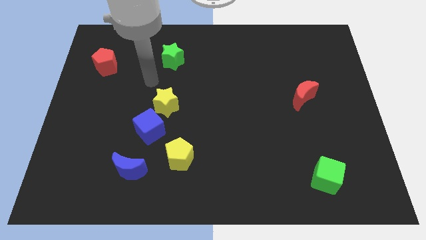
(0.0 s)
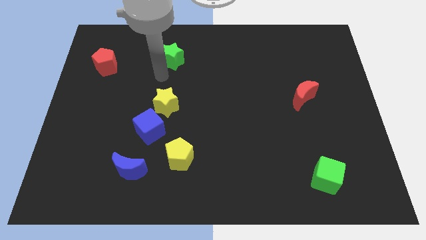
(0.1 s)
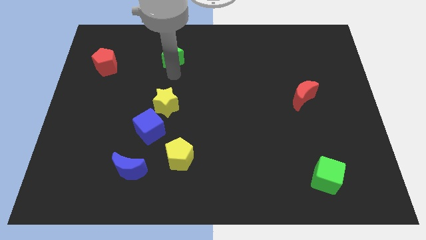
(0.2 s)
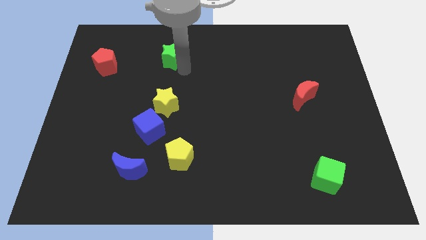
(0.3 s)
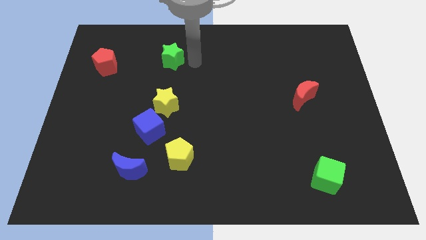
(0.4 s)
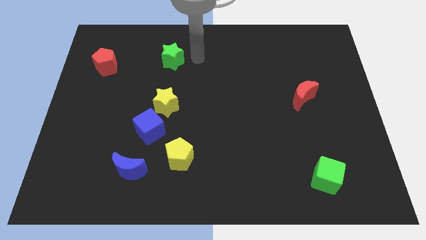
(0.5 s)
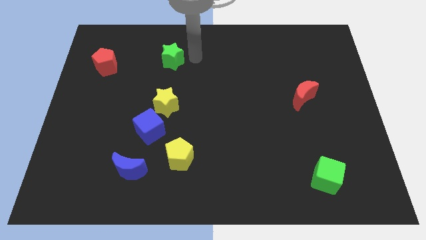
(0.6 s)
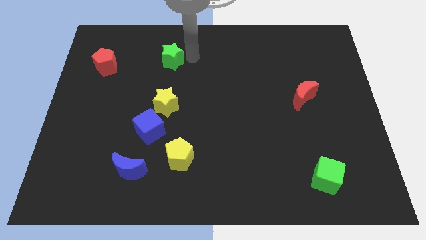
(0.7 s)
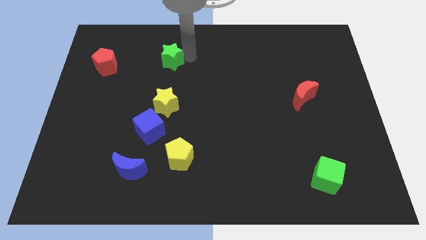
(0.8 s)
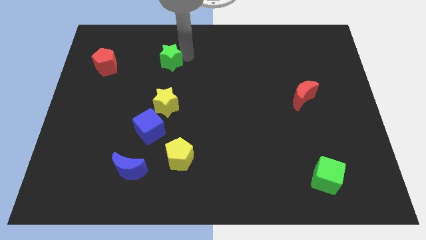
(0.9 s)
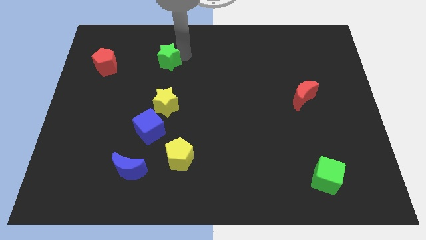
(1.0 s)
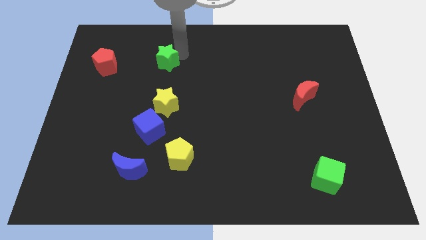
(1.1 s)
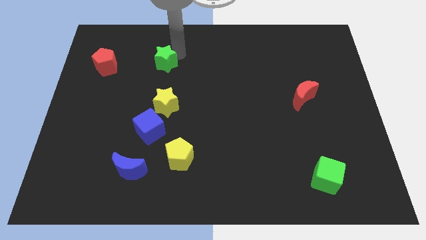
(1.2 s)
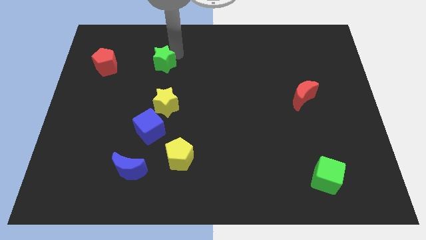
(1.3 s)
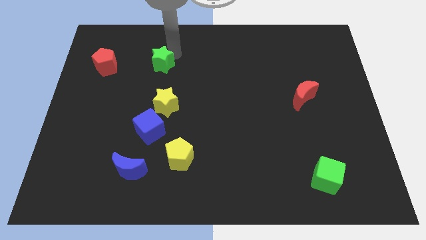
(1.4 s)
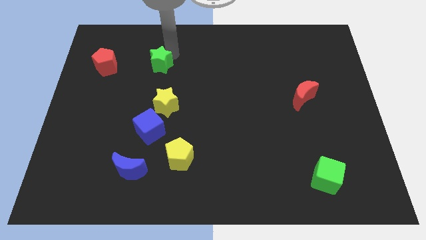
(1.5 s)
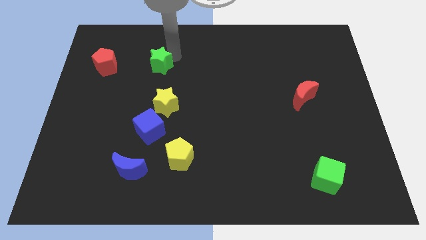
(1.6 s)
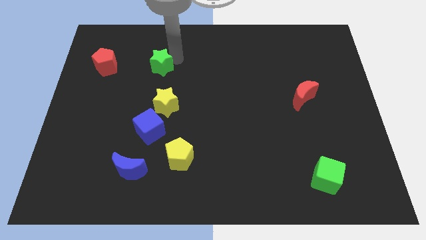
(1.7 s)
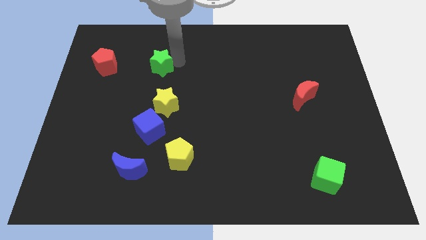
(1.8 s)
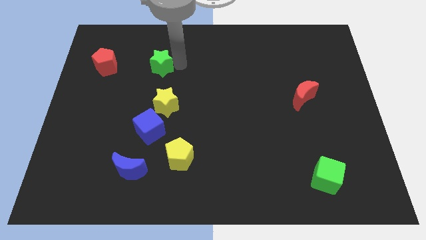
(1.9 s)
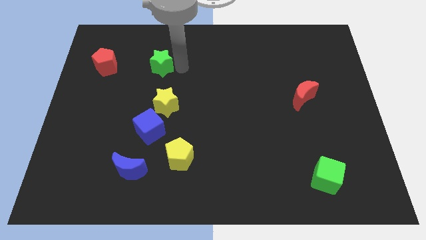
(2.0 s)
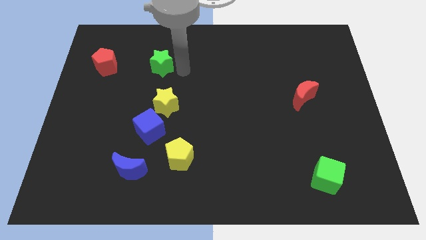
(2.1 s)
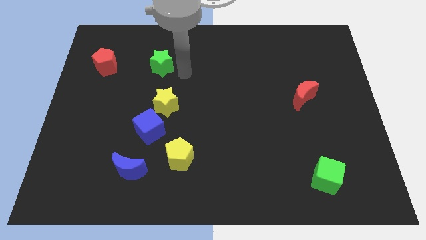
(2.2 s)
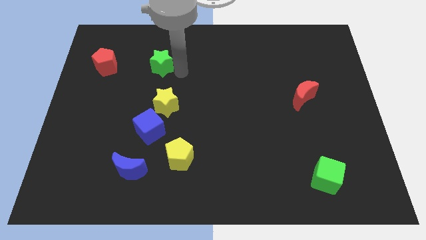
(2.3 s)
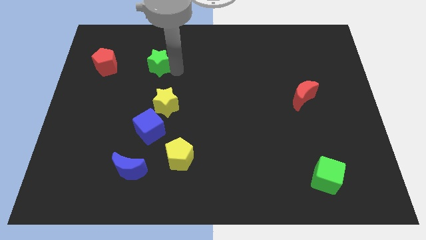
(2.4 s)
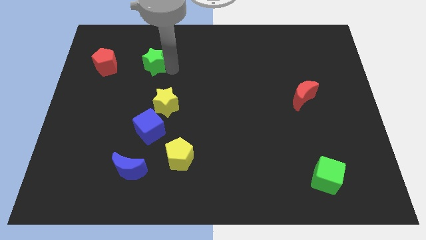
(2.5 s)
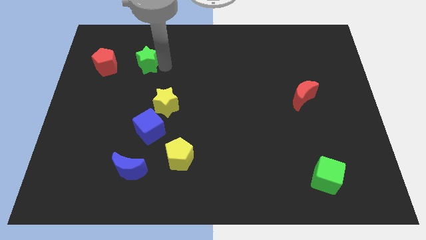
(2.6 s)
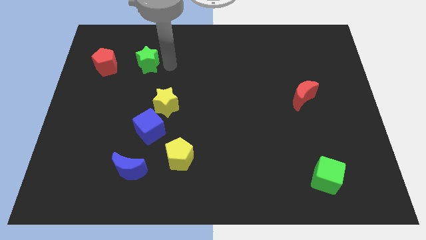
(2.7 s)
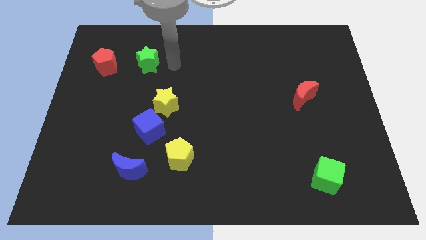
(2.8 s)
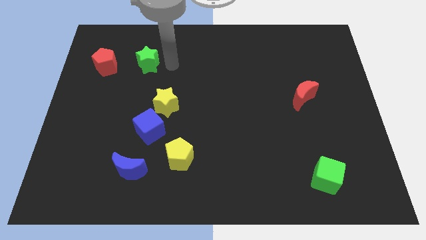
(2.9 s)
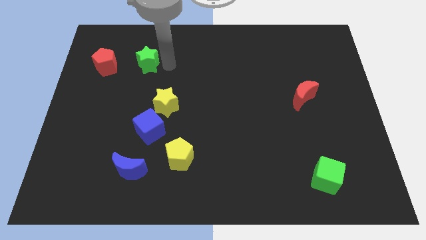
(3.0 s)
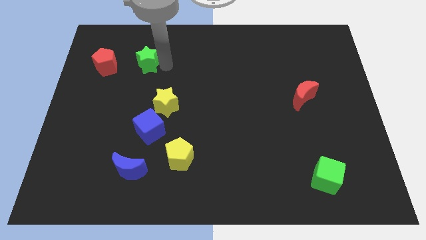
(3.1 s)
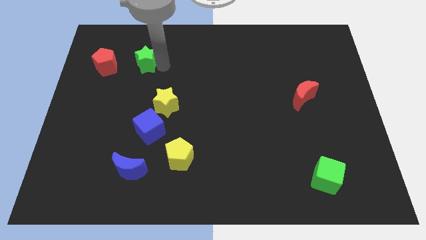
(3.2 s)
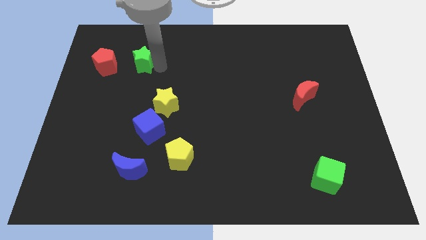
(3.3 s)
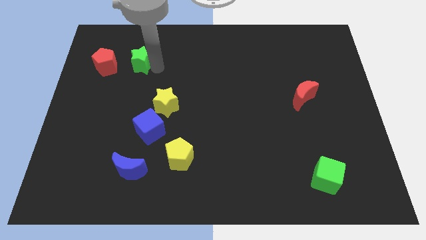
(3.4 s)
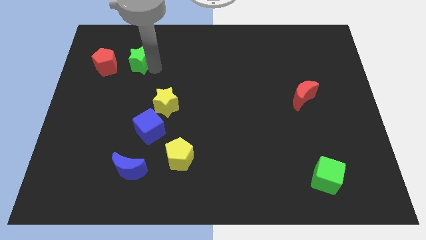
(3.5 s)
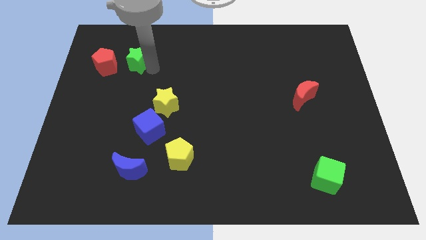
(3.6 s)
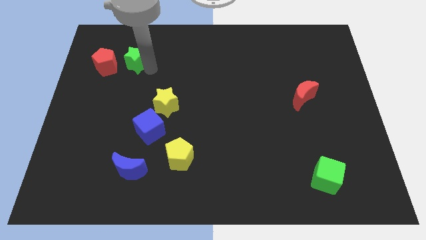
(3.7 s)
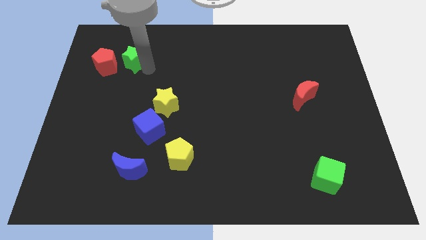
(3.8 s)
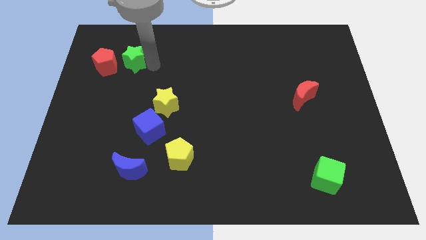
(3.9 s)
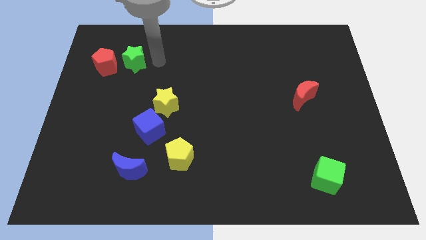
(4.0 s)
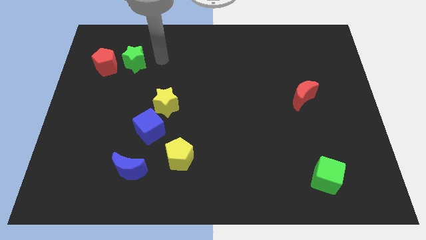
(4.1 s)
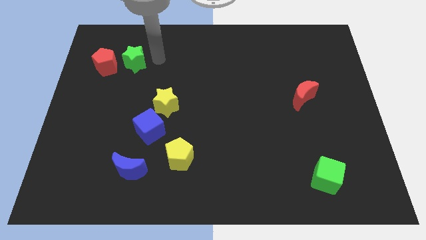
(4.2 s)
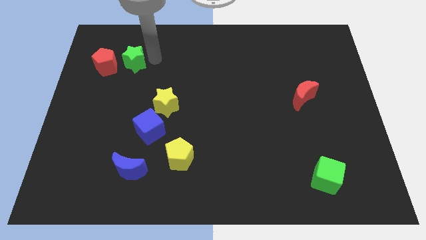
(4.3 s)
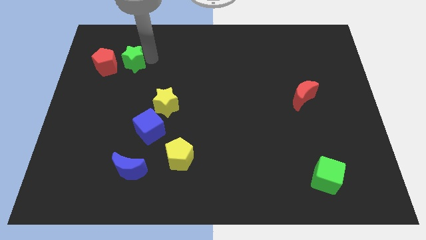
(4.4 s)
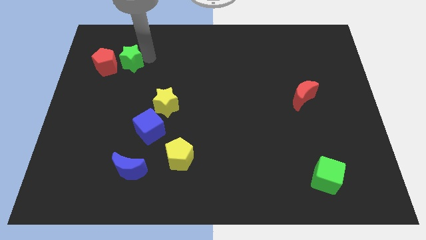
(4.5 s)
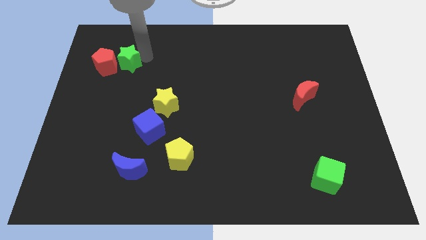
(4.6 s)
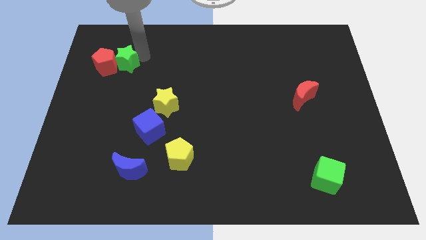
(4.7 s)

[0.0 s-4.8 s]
put the green star to the red pentagon

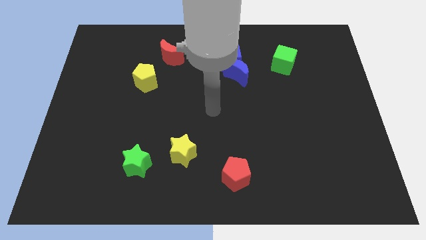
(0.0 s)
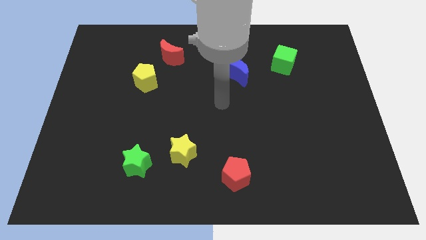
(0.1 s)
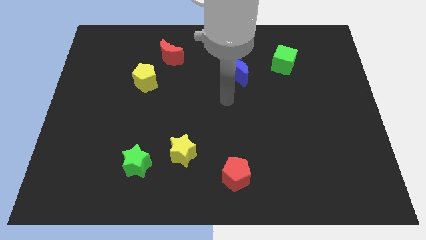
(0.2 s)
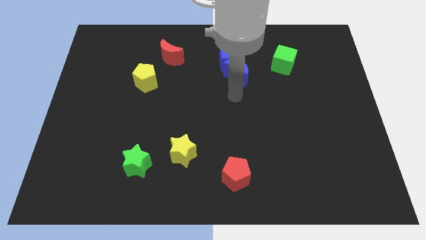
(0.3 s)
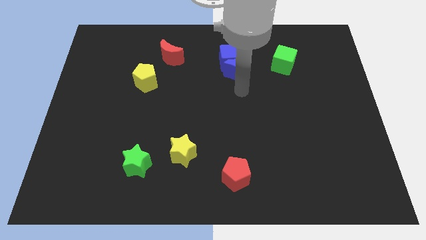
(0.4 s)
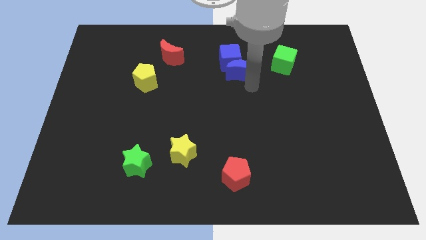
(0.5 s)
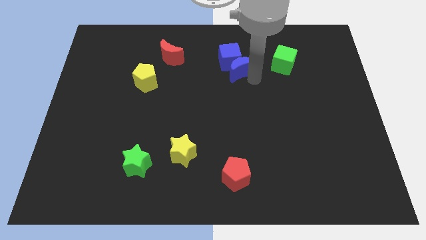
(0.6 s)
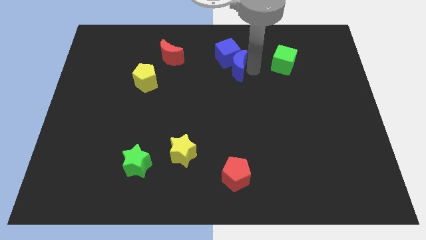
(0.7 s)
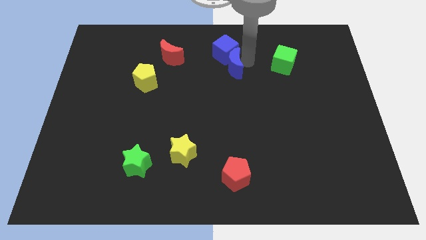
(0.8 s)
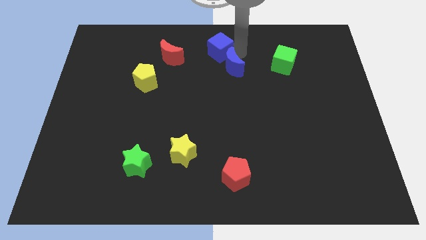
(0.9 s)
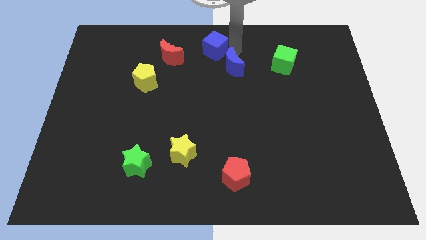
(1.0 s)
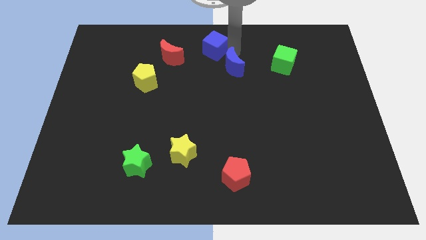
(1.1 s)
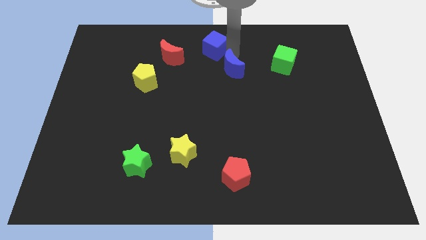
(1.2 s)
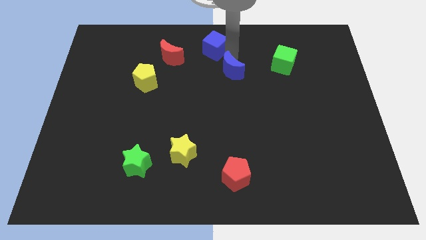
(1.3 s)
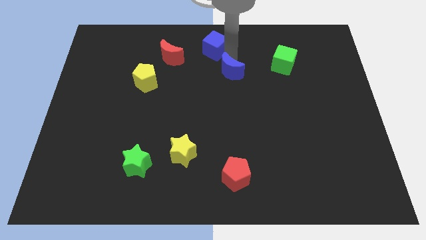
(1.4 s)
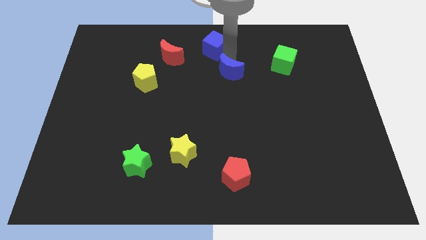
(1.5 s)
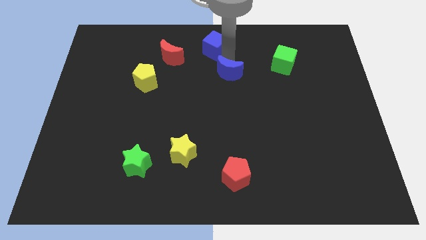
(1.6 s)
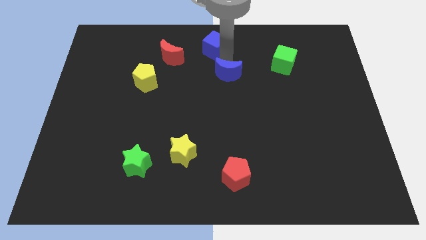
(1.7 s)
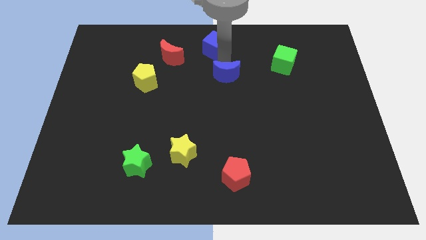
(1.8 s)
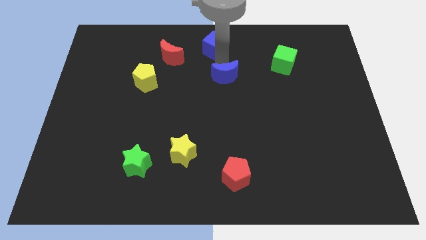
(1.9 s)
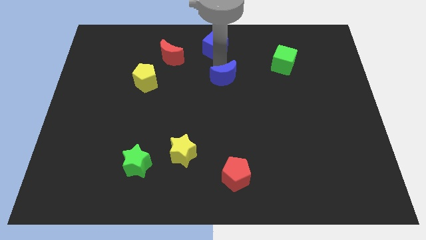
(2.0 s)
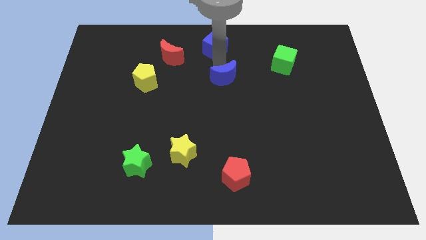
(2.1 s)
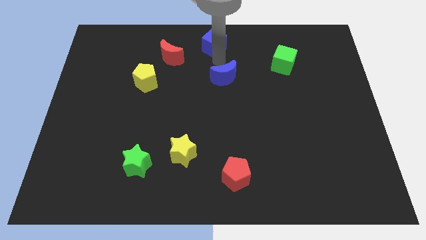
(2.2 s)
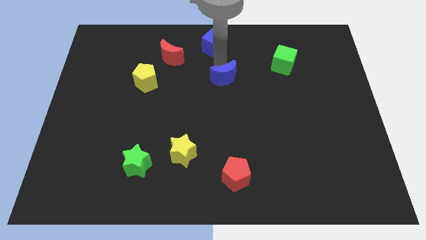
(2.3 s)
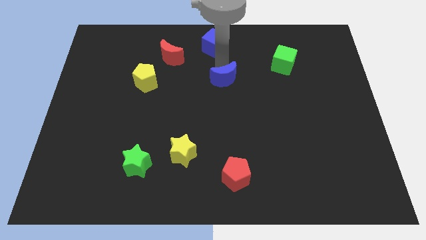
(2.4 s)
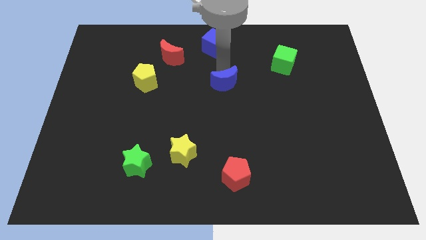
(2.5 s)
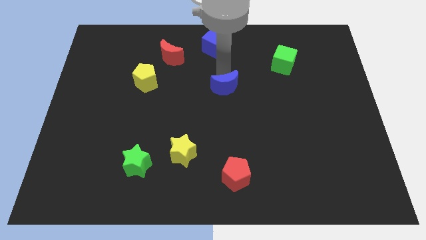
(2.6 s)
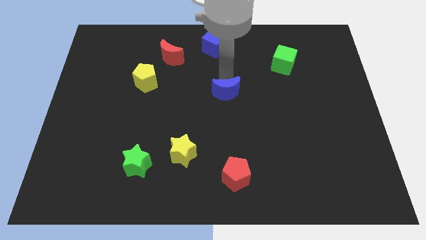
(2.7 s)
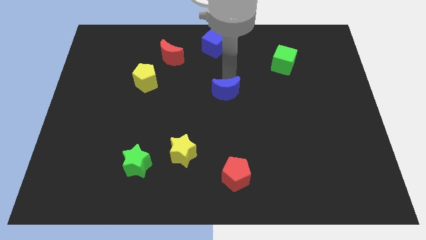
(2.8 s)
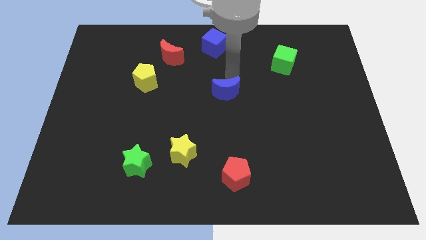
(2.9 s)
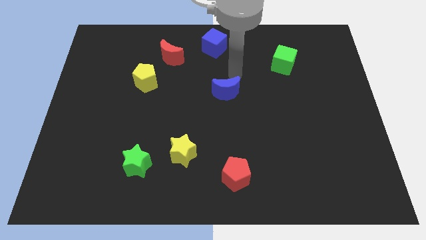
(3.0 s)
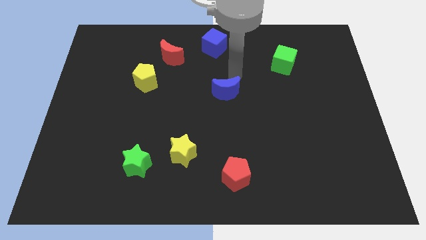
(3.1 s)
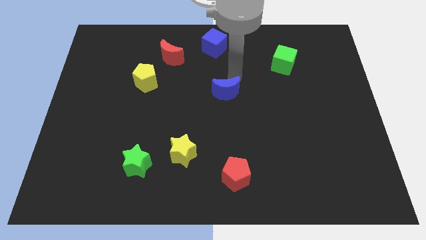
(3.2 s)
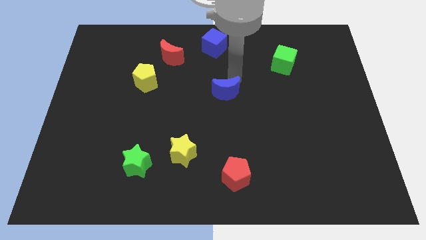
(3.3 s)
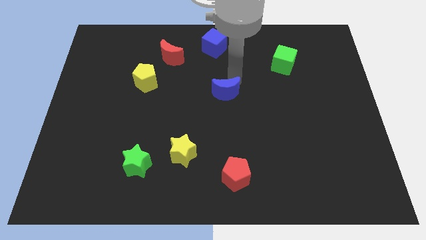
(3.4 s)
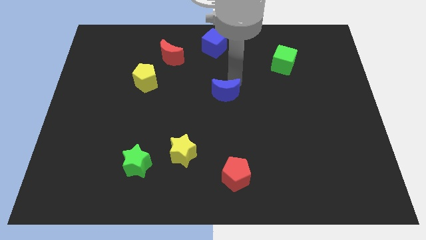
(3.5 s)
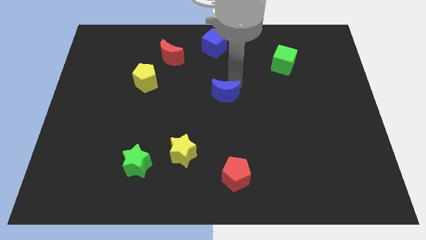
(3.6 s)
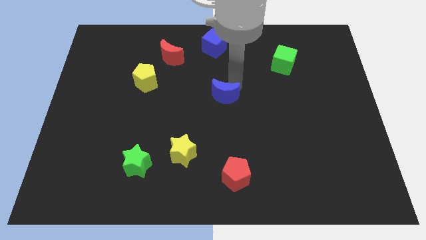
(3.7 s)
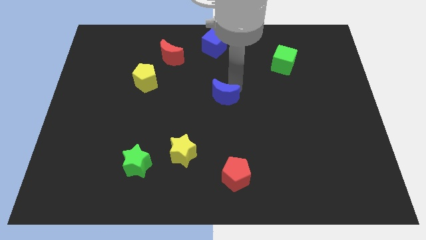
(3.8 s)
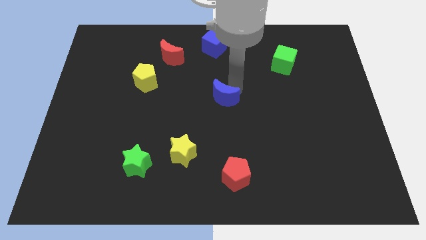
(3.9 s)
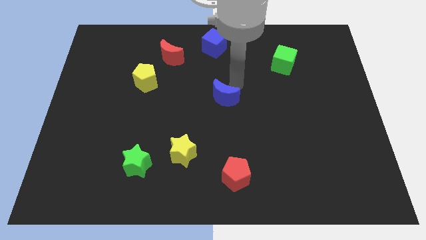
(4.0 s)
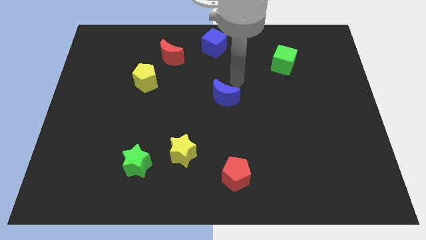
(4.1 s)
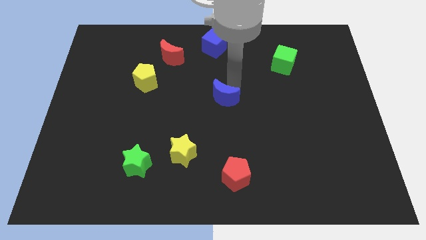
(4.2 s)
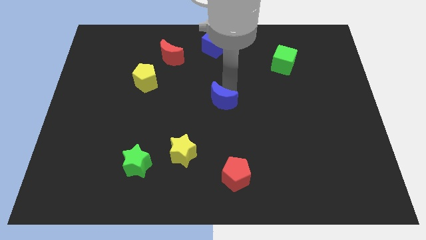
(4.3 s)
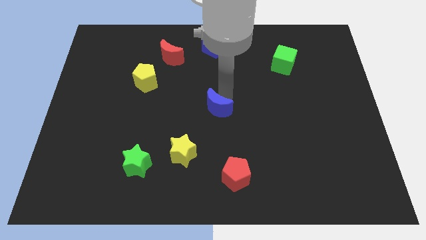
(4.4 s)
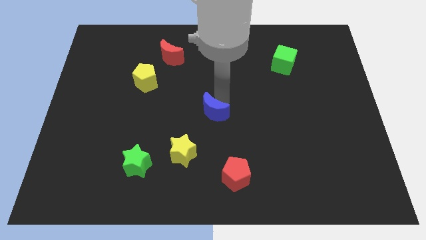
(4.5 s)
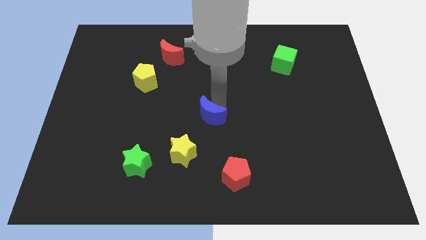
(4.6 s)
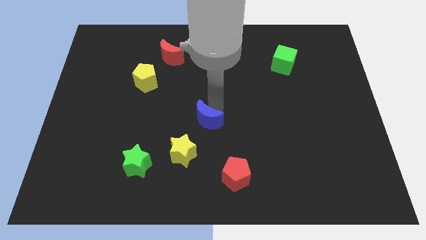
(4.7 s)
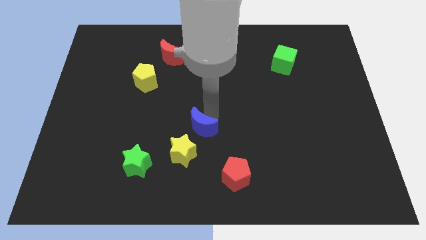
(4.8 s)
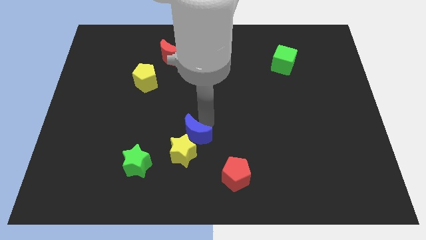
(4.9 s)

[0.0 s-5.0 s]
slide the blue moon towards the yellow star
